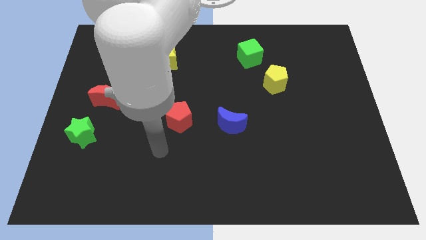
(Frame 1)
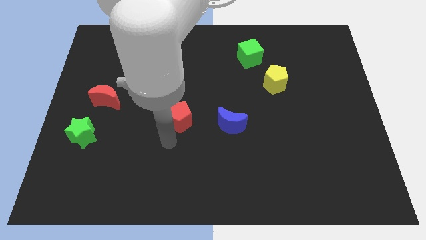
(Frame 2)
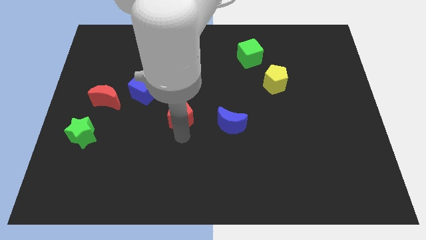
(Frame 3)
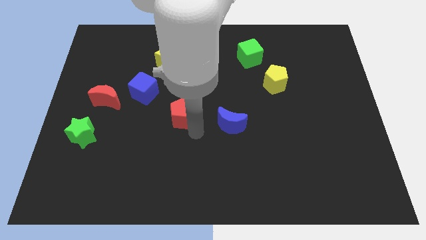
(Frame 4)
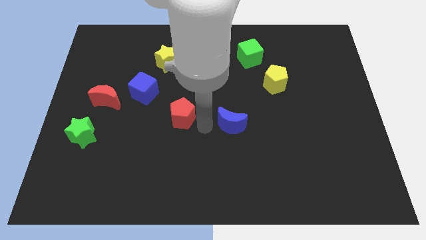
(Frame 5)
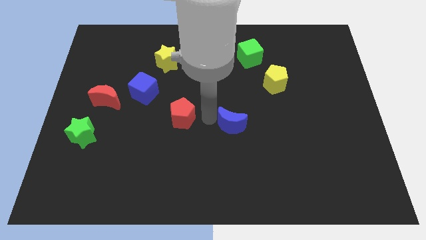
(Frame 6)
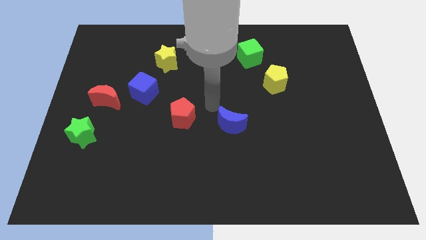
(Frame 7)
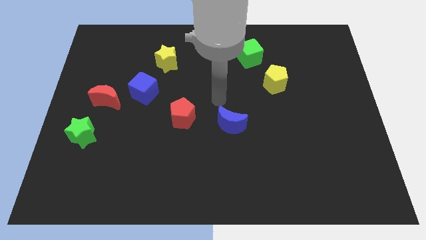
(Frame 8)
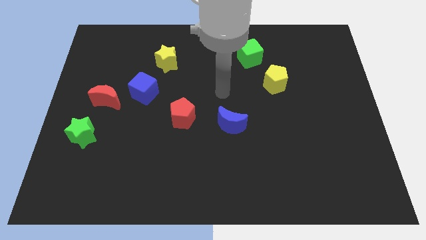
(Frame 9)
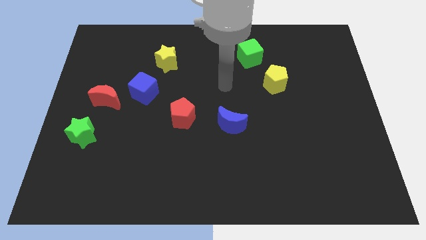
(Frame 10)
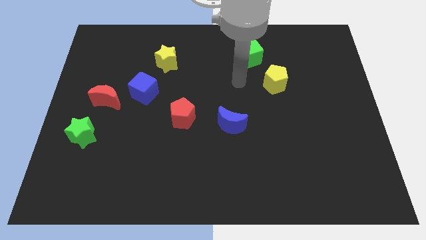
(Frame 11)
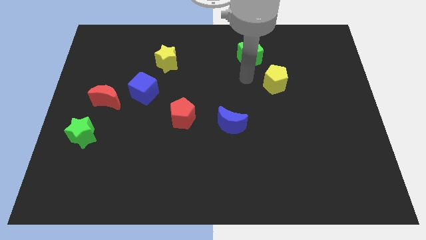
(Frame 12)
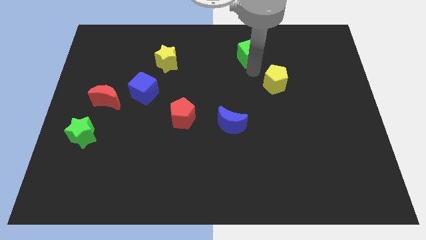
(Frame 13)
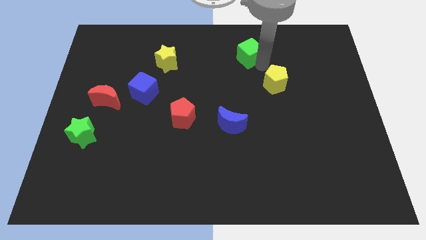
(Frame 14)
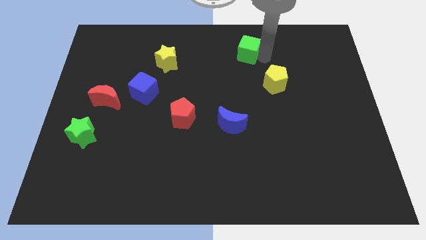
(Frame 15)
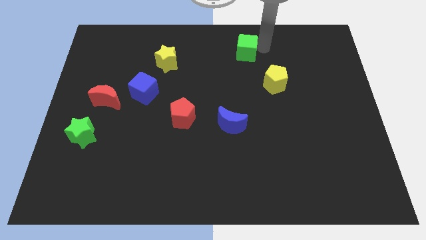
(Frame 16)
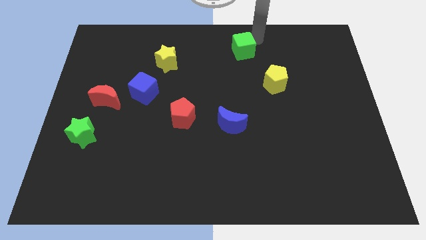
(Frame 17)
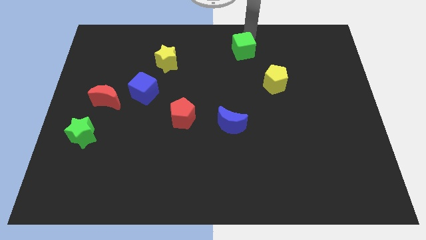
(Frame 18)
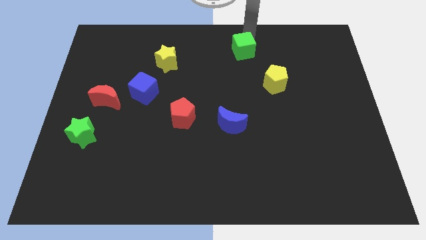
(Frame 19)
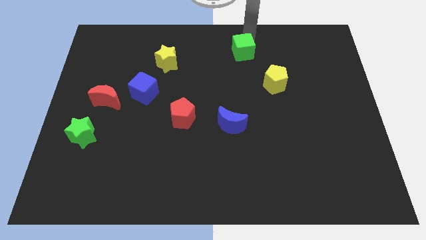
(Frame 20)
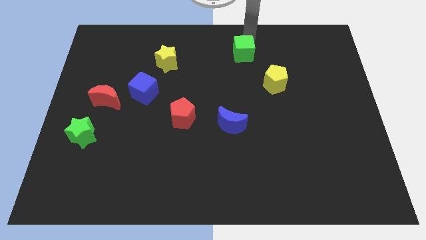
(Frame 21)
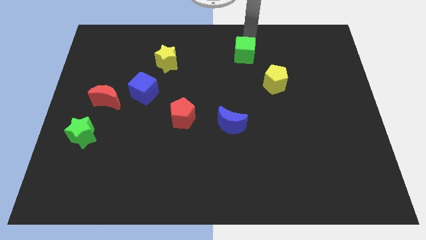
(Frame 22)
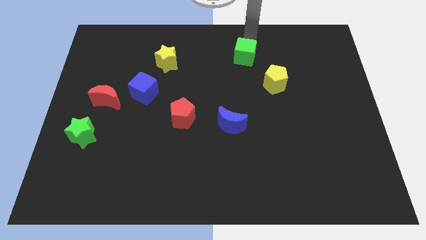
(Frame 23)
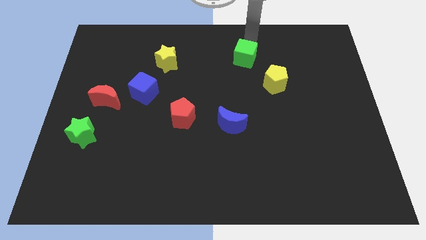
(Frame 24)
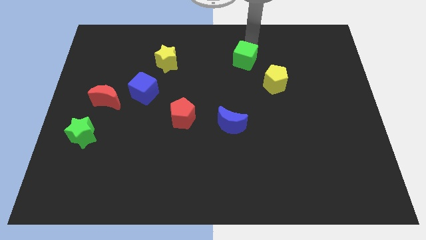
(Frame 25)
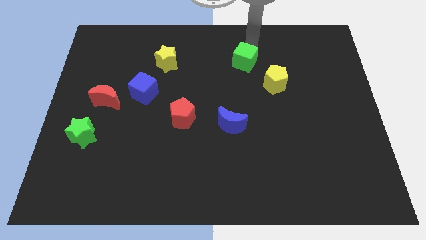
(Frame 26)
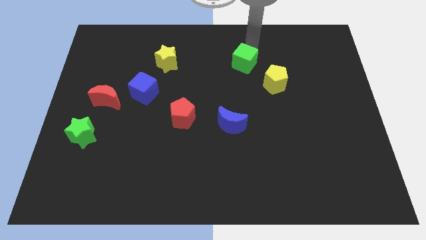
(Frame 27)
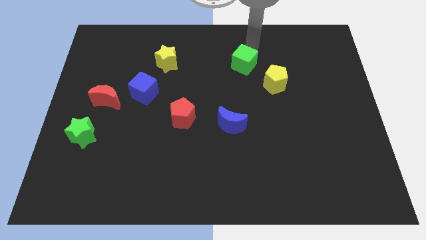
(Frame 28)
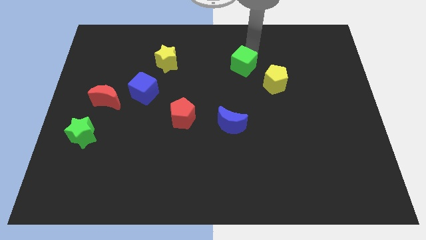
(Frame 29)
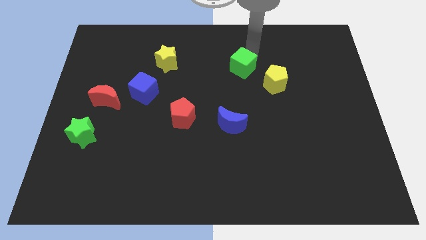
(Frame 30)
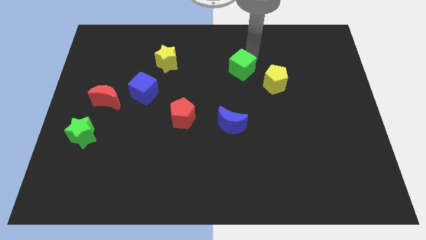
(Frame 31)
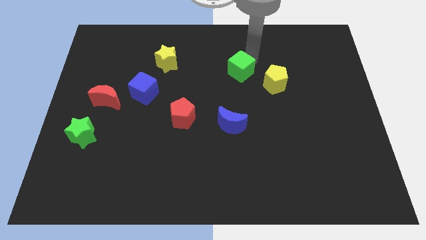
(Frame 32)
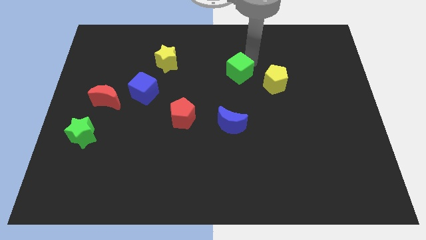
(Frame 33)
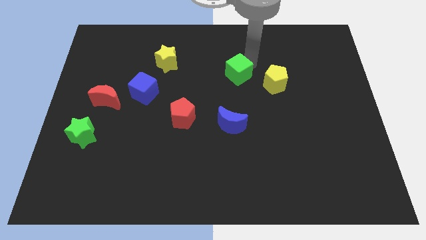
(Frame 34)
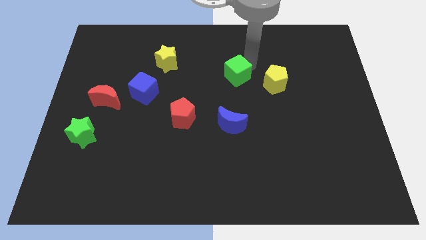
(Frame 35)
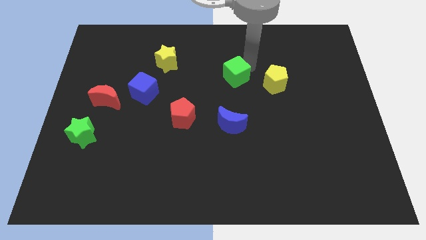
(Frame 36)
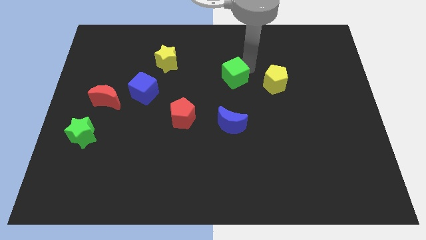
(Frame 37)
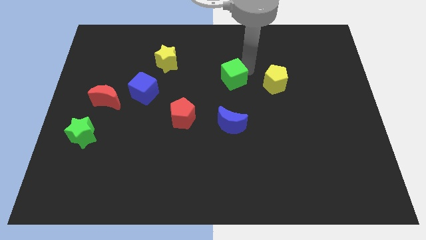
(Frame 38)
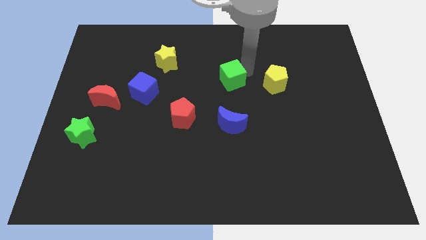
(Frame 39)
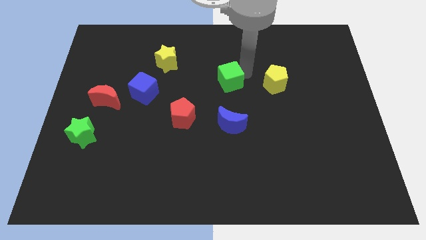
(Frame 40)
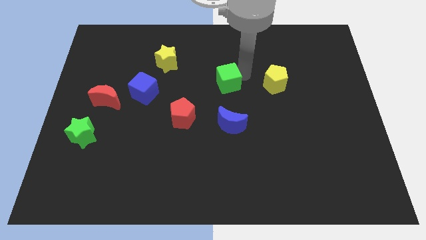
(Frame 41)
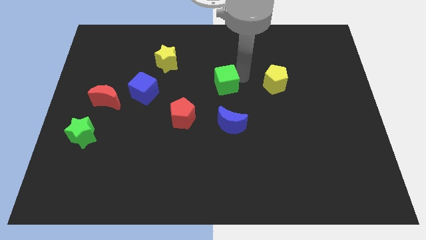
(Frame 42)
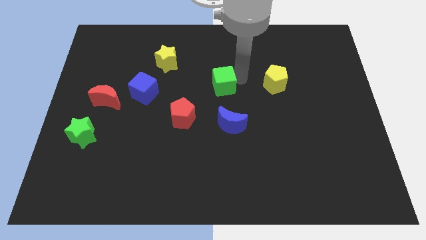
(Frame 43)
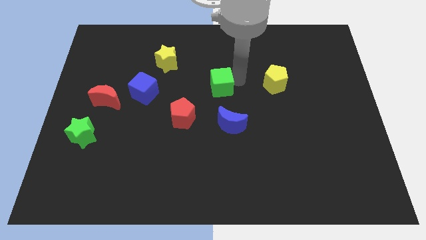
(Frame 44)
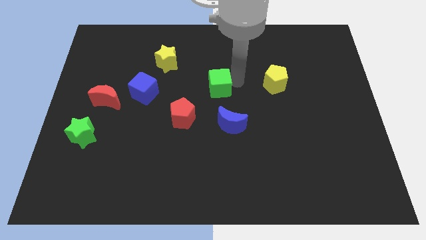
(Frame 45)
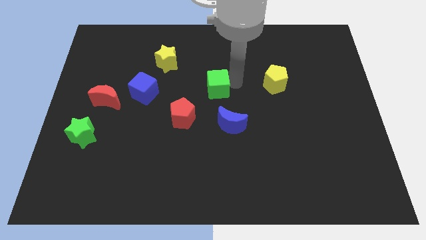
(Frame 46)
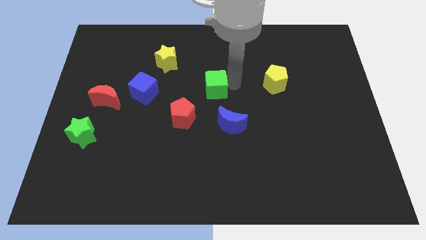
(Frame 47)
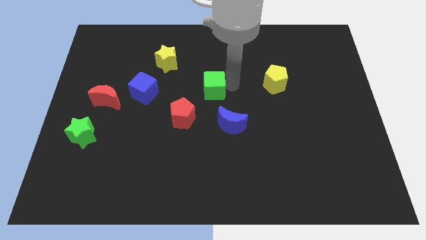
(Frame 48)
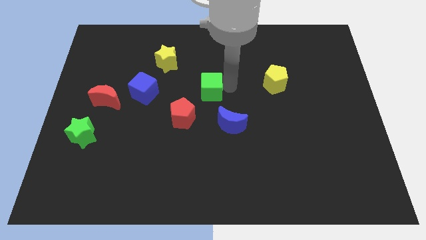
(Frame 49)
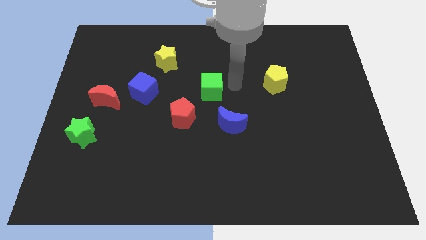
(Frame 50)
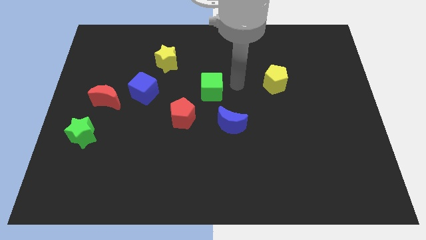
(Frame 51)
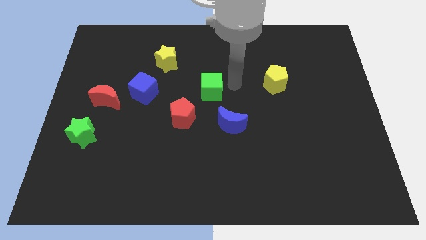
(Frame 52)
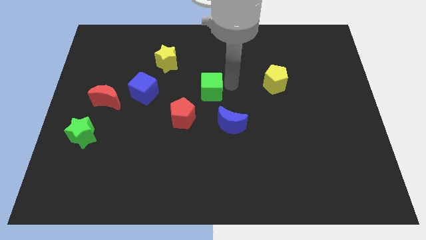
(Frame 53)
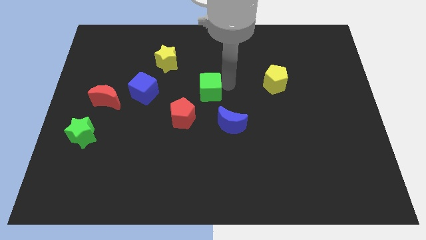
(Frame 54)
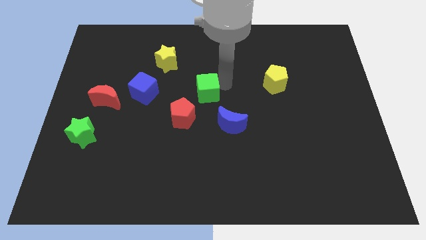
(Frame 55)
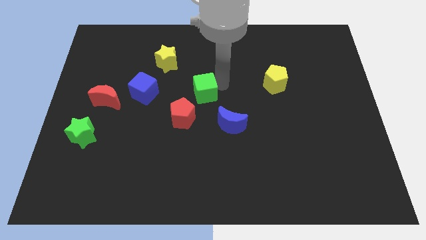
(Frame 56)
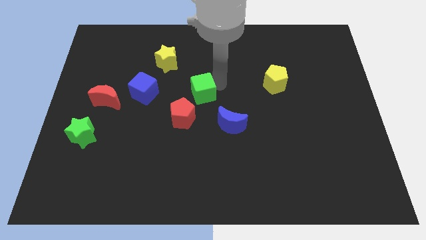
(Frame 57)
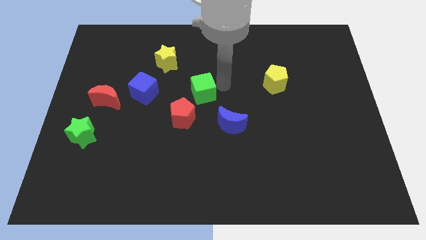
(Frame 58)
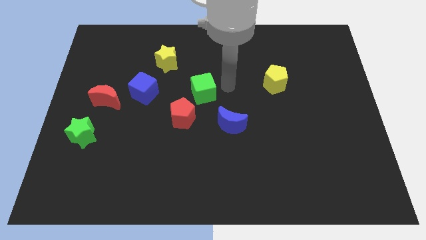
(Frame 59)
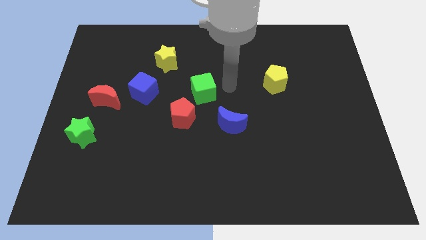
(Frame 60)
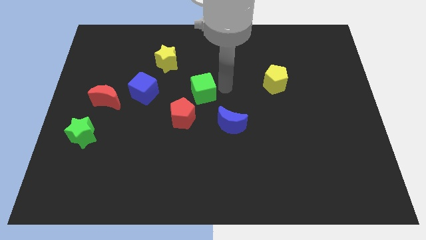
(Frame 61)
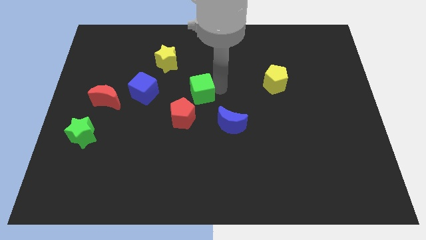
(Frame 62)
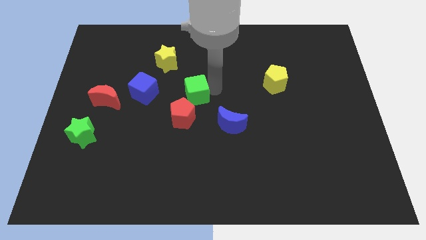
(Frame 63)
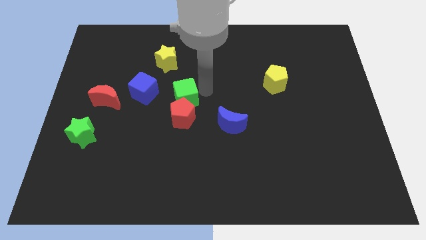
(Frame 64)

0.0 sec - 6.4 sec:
slide the green cube downwards and left

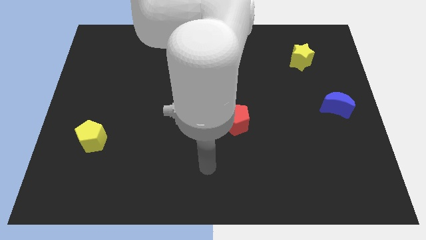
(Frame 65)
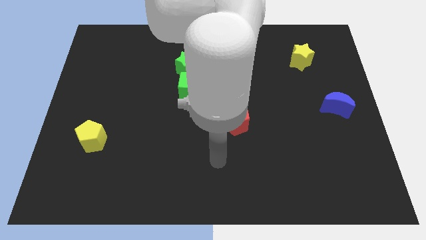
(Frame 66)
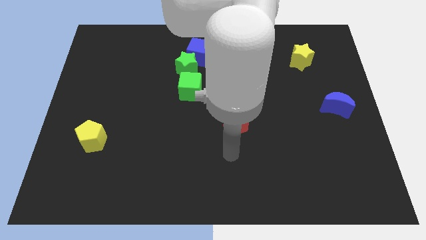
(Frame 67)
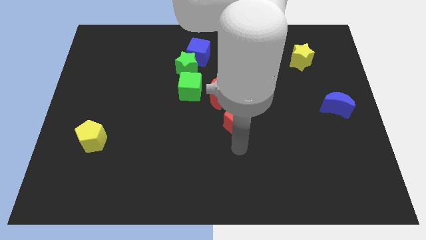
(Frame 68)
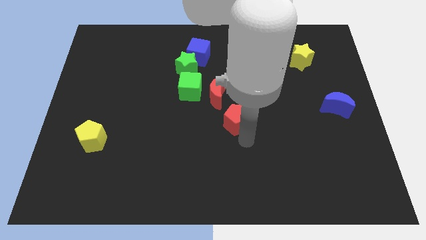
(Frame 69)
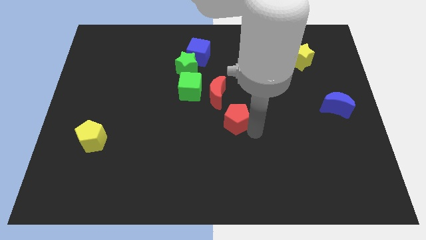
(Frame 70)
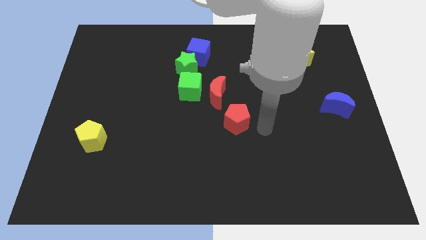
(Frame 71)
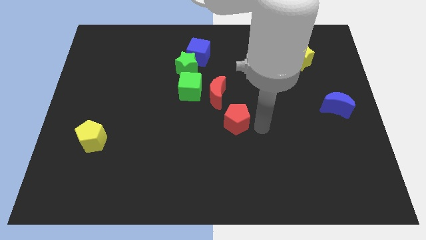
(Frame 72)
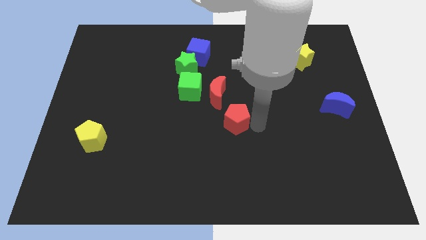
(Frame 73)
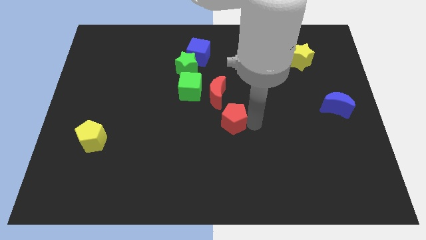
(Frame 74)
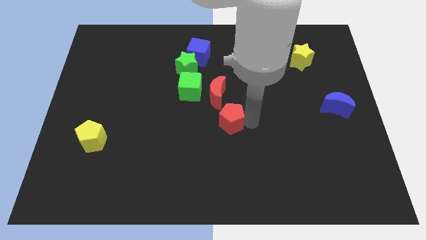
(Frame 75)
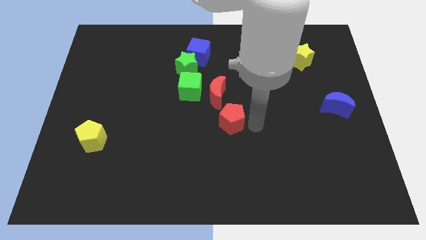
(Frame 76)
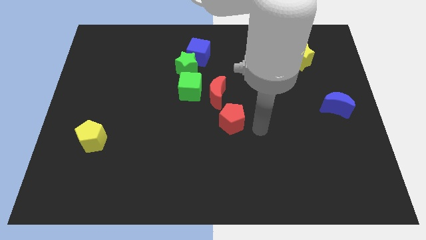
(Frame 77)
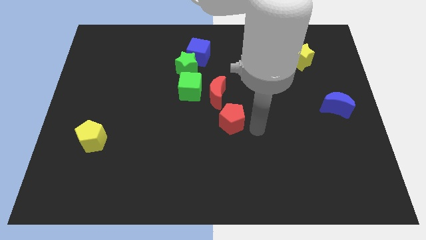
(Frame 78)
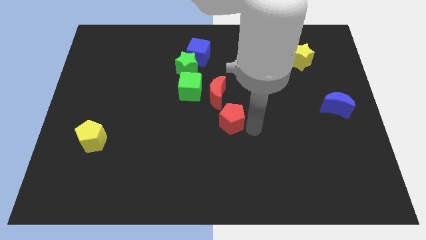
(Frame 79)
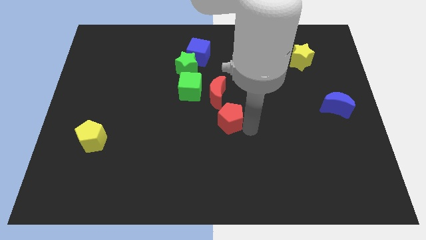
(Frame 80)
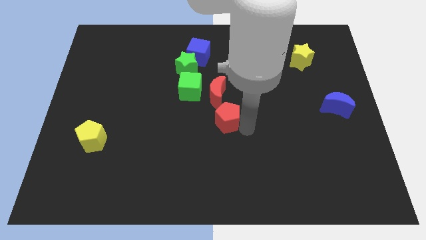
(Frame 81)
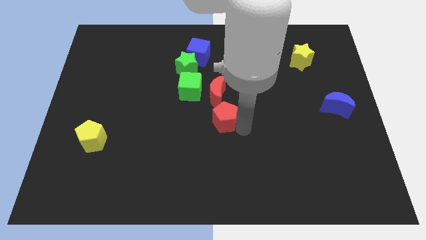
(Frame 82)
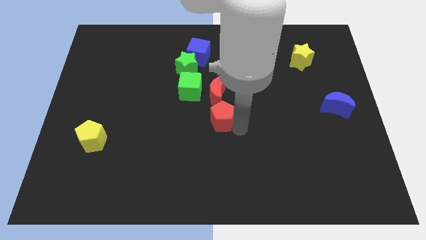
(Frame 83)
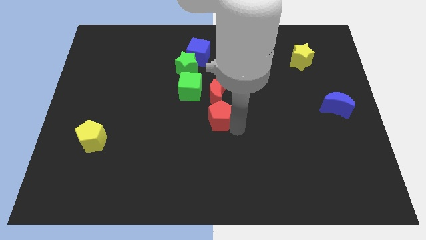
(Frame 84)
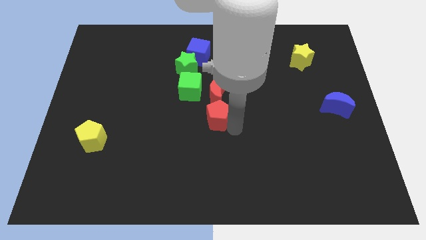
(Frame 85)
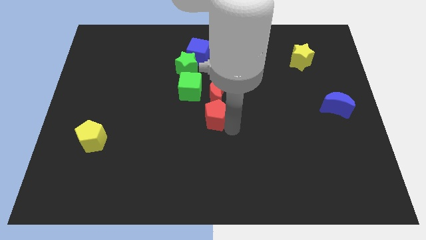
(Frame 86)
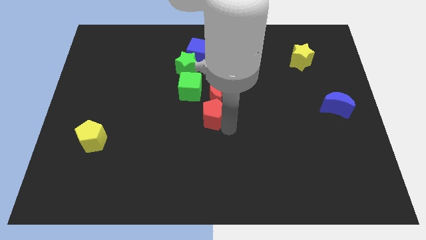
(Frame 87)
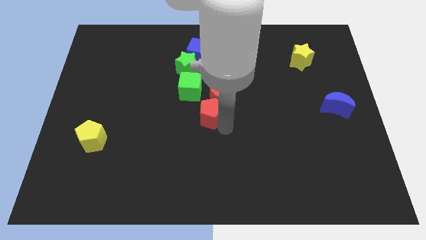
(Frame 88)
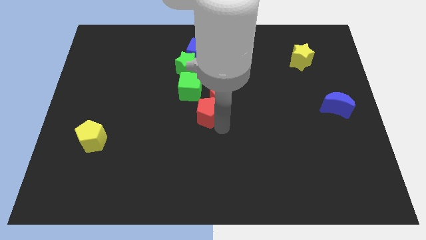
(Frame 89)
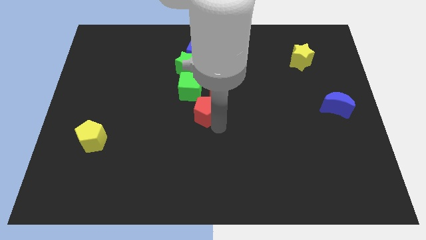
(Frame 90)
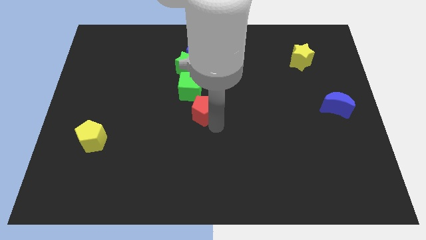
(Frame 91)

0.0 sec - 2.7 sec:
slightly slide the red pentagon upwards and then left
